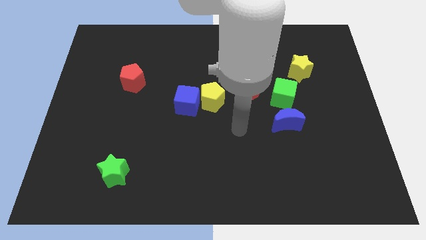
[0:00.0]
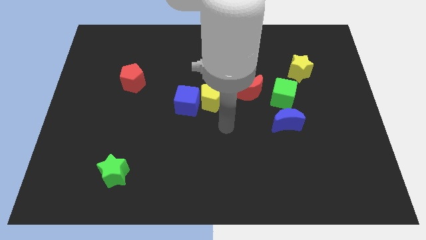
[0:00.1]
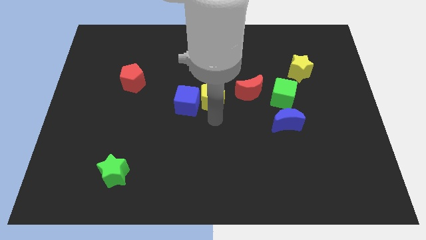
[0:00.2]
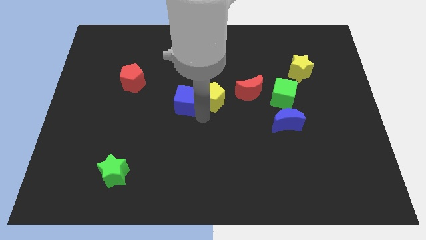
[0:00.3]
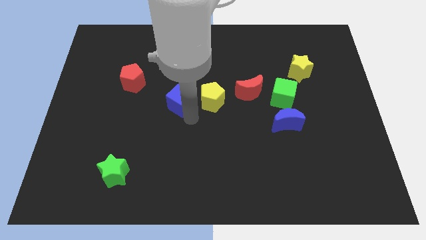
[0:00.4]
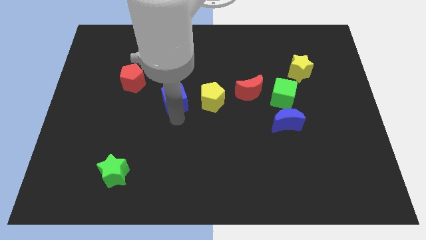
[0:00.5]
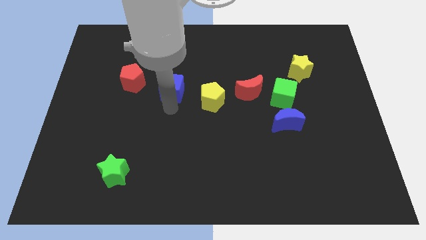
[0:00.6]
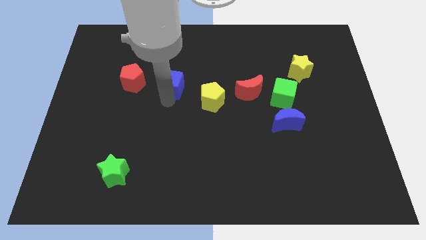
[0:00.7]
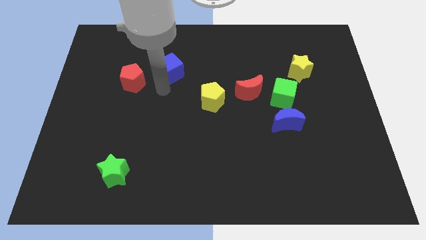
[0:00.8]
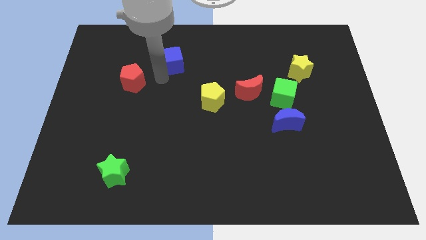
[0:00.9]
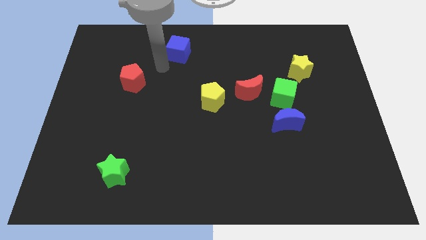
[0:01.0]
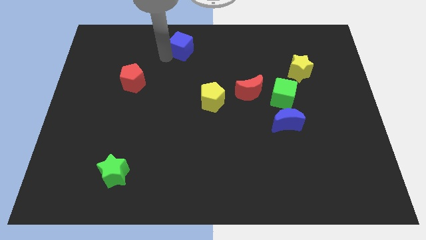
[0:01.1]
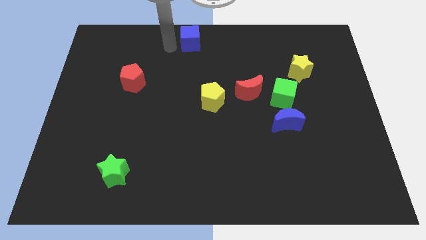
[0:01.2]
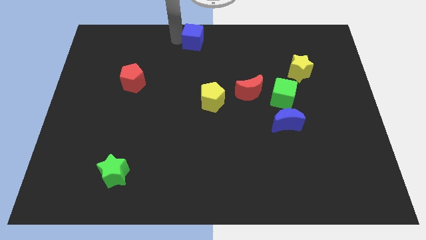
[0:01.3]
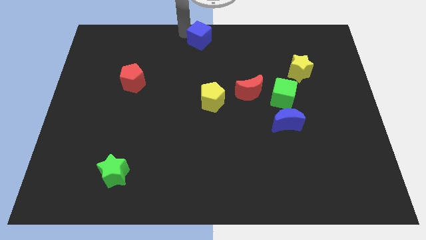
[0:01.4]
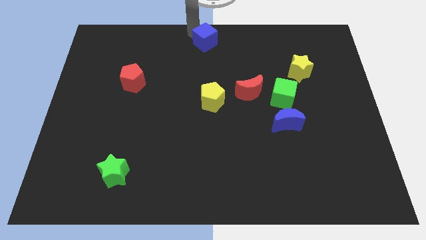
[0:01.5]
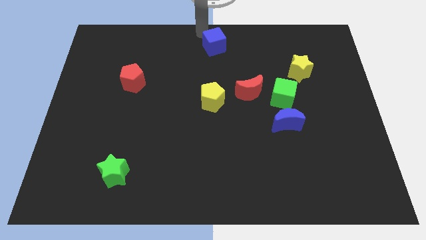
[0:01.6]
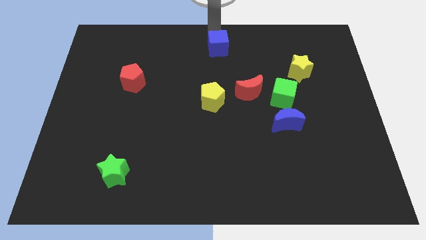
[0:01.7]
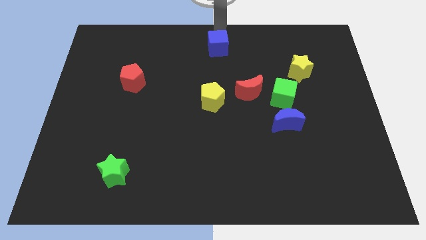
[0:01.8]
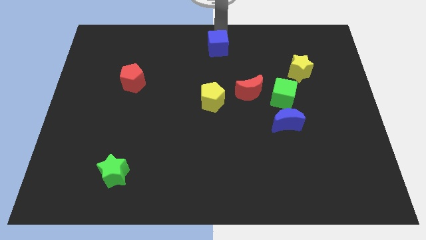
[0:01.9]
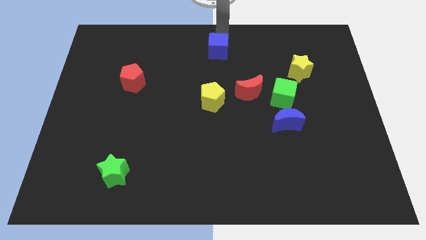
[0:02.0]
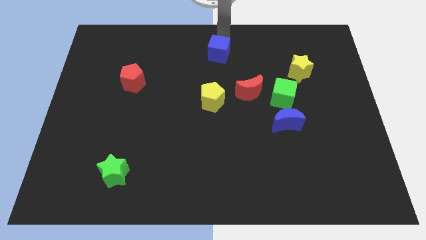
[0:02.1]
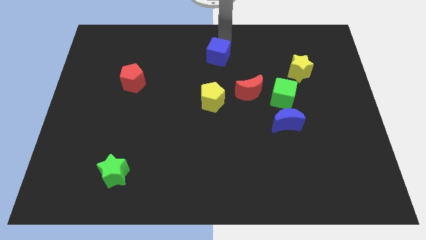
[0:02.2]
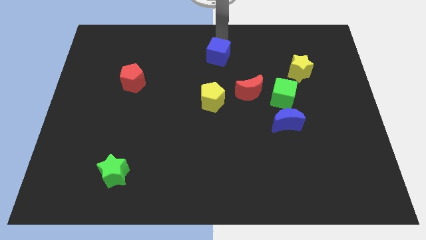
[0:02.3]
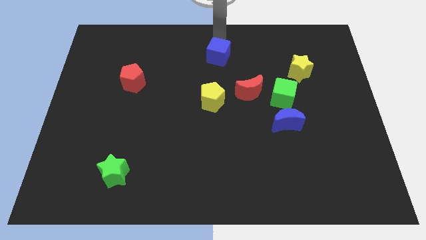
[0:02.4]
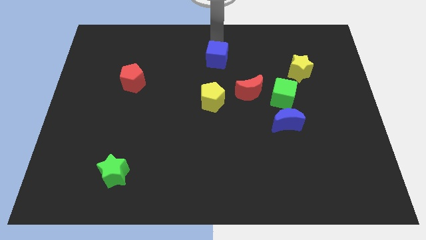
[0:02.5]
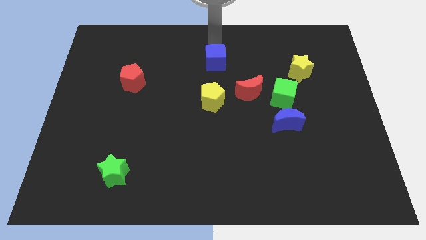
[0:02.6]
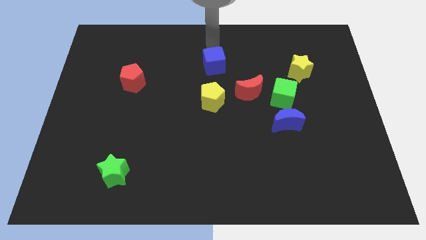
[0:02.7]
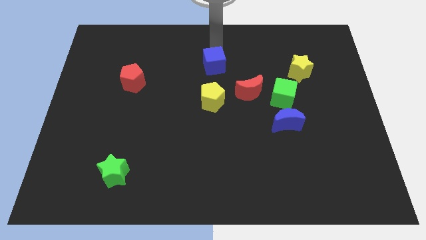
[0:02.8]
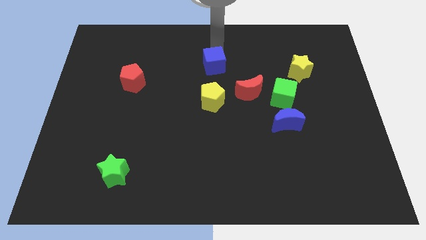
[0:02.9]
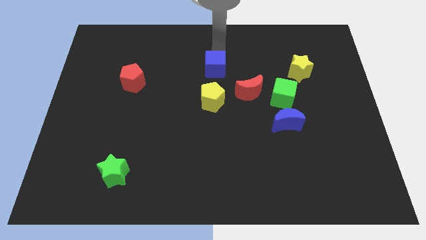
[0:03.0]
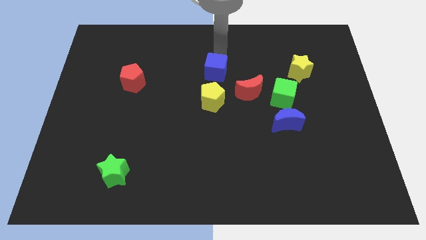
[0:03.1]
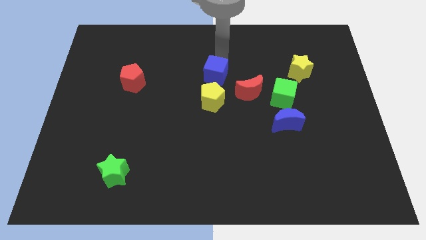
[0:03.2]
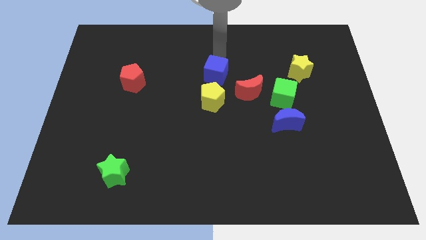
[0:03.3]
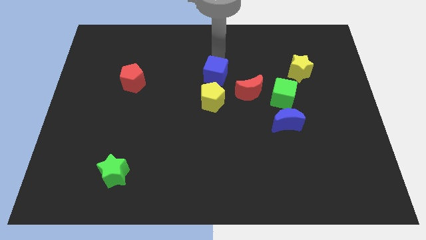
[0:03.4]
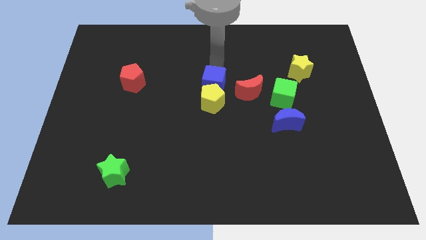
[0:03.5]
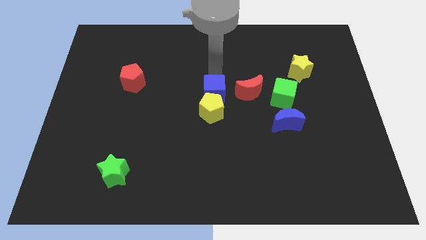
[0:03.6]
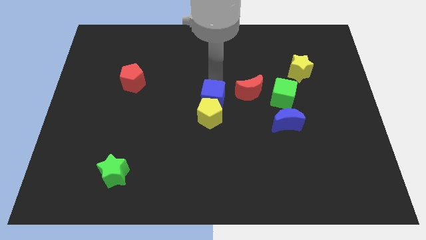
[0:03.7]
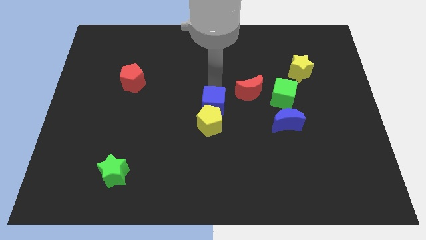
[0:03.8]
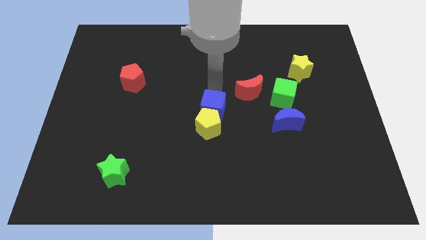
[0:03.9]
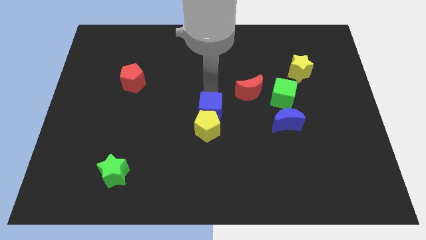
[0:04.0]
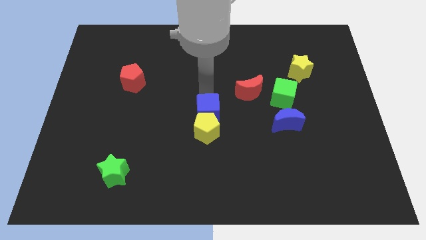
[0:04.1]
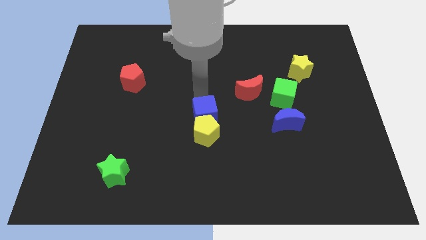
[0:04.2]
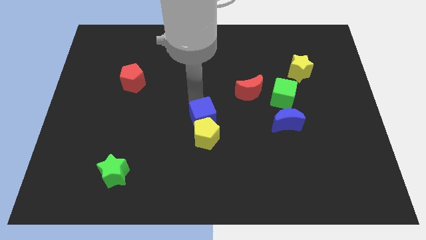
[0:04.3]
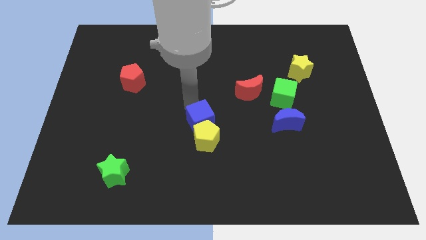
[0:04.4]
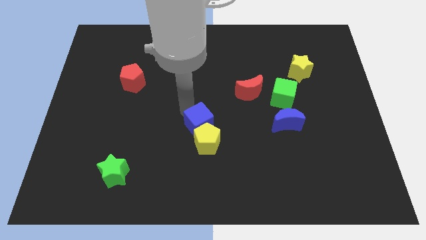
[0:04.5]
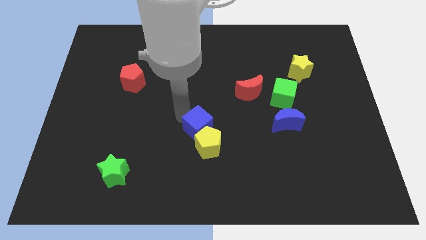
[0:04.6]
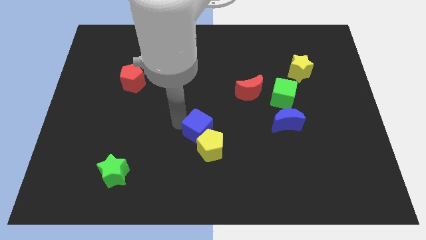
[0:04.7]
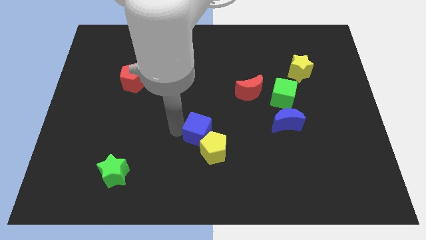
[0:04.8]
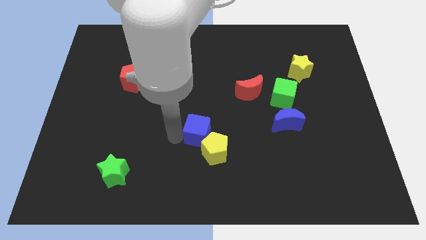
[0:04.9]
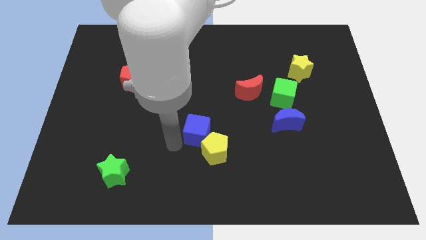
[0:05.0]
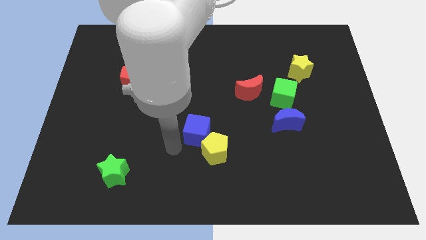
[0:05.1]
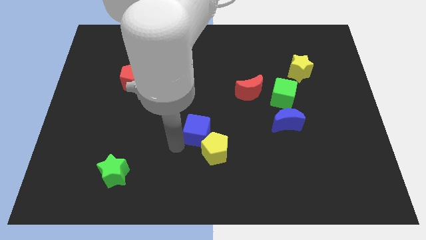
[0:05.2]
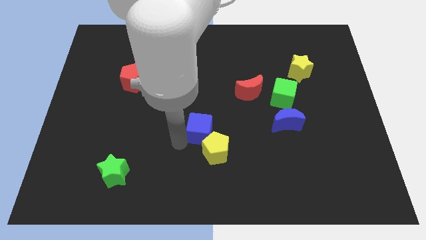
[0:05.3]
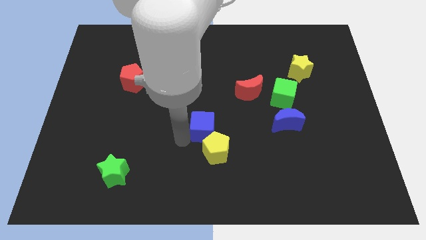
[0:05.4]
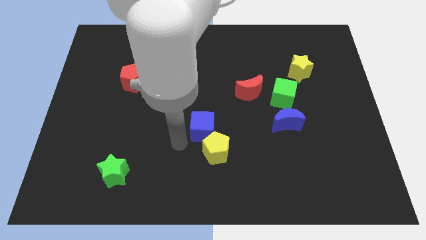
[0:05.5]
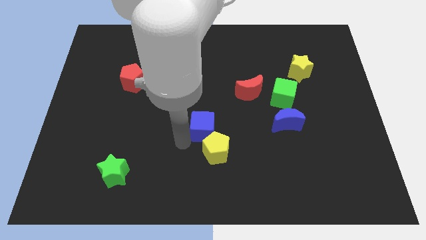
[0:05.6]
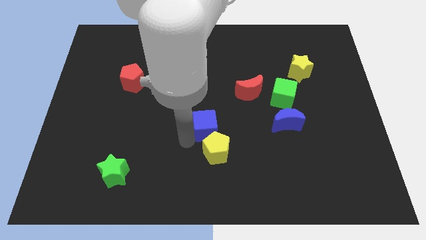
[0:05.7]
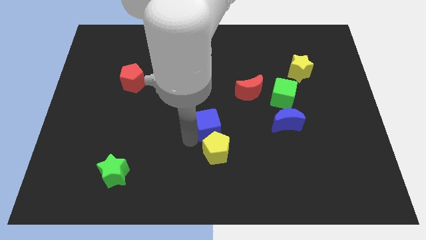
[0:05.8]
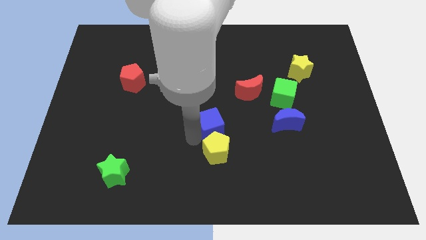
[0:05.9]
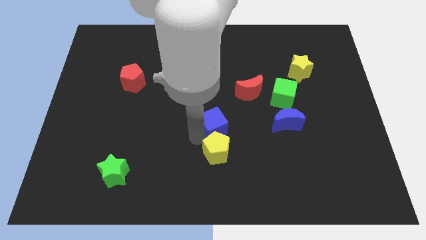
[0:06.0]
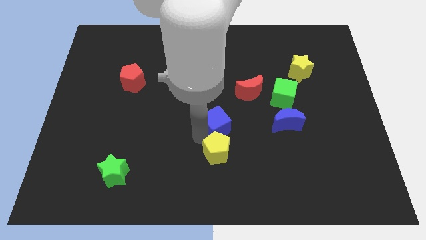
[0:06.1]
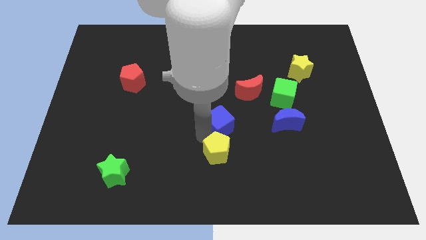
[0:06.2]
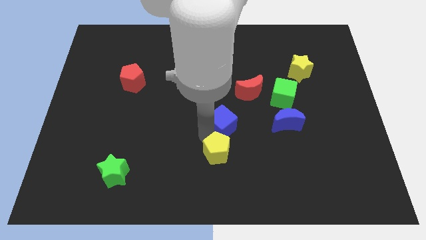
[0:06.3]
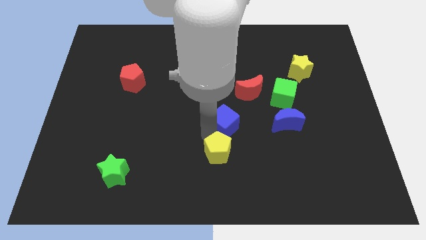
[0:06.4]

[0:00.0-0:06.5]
slide the blue cube right somewhat

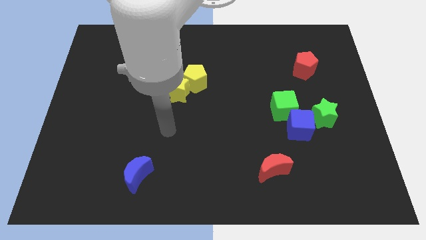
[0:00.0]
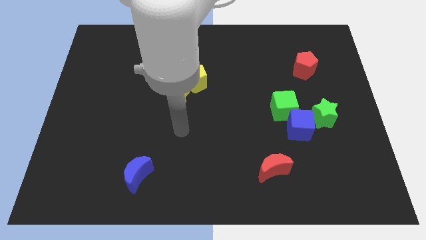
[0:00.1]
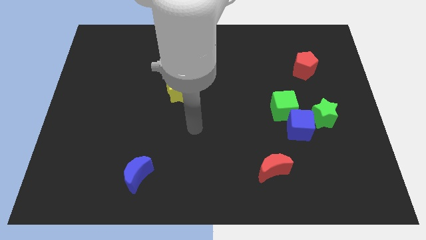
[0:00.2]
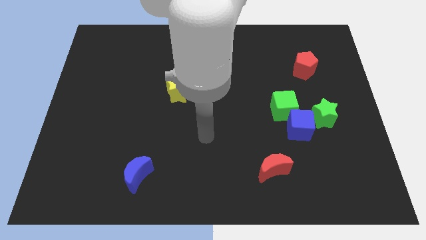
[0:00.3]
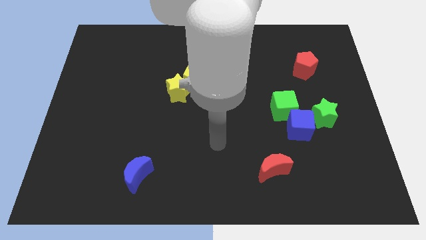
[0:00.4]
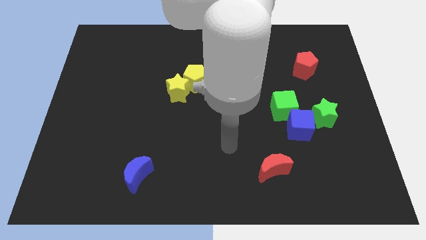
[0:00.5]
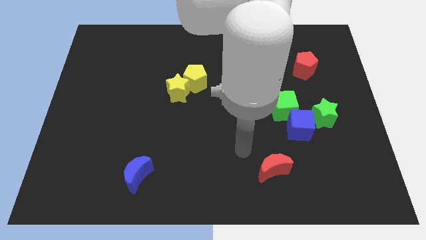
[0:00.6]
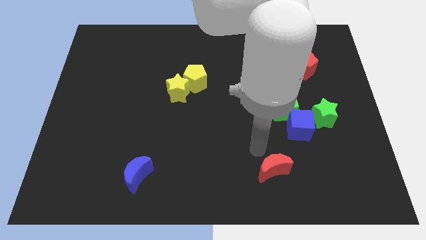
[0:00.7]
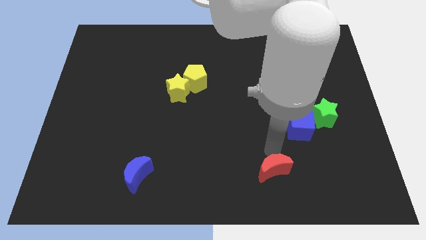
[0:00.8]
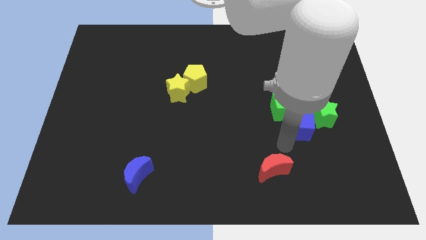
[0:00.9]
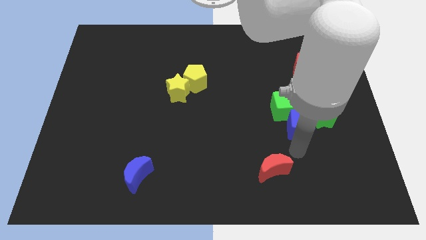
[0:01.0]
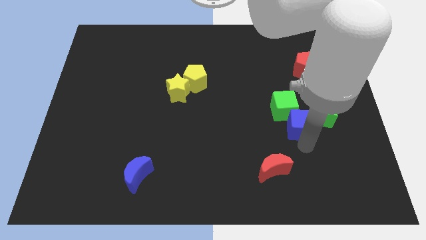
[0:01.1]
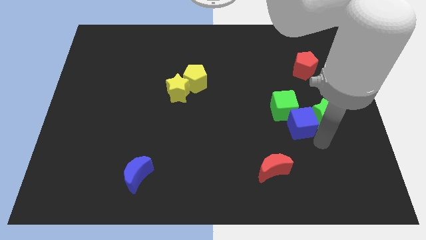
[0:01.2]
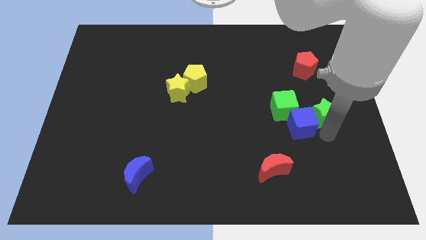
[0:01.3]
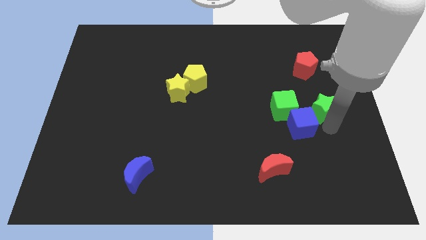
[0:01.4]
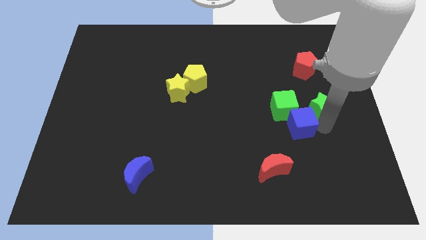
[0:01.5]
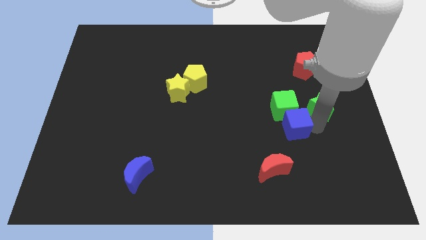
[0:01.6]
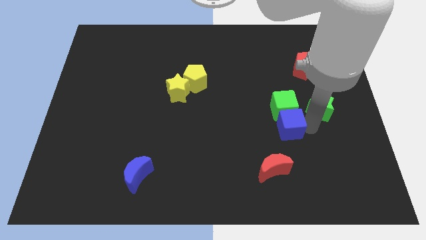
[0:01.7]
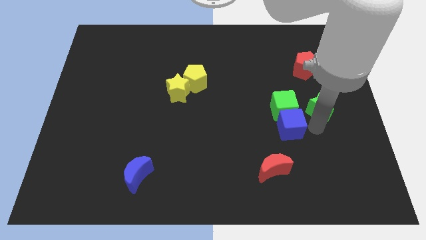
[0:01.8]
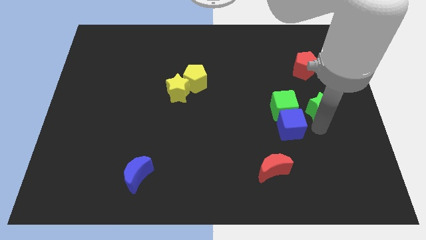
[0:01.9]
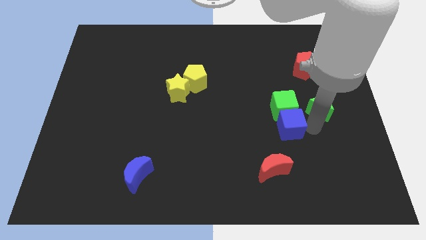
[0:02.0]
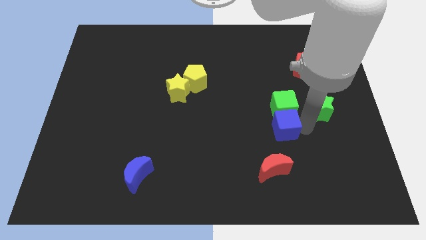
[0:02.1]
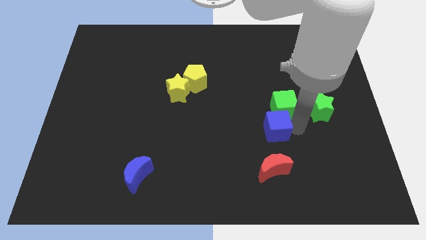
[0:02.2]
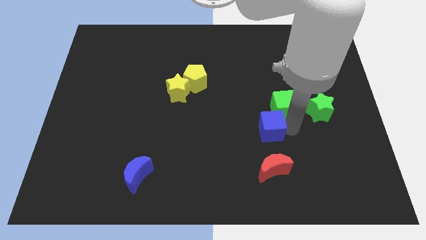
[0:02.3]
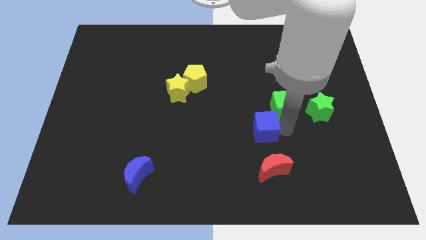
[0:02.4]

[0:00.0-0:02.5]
move the blue cube left somewhat
